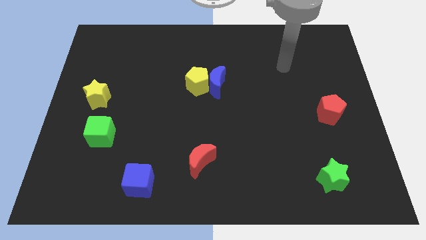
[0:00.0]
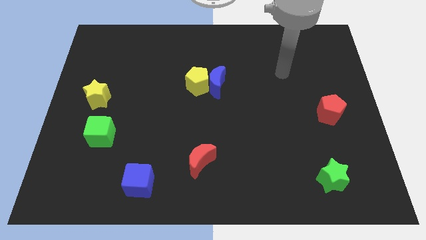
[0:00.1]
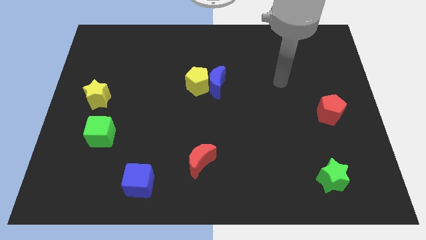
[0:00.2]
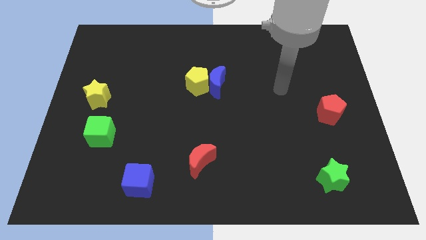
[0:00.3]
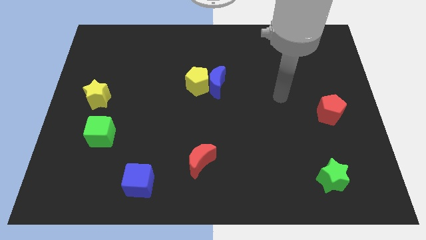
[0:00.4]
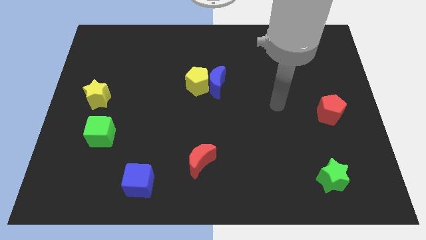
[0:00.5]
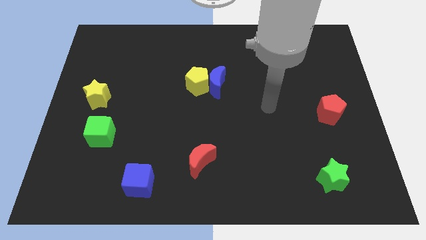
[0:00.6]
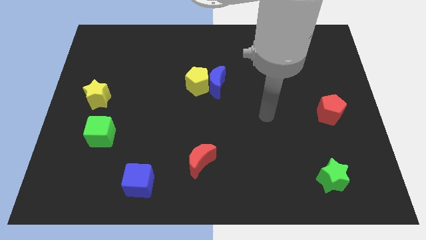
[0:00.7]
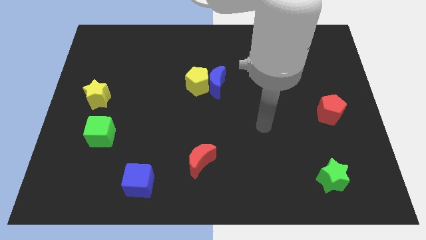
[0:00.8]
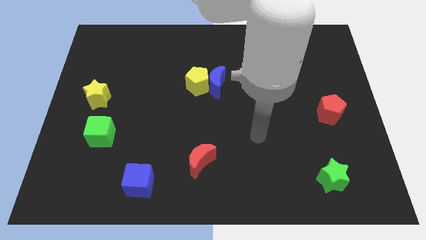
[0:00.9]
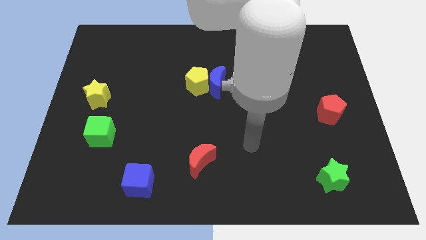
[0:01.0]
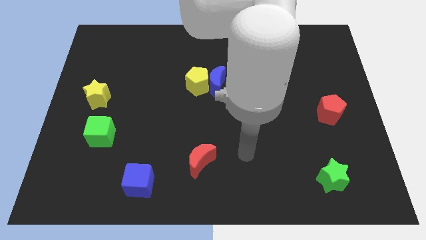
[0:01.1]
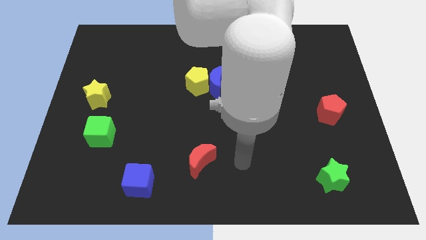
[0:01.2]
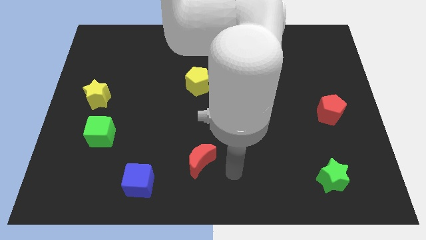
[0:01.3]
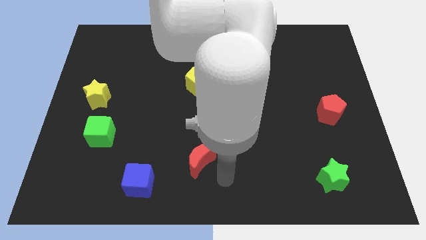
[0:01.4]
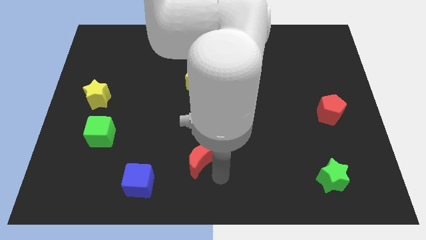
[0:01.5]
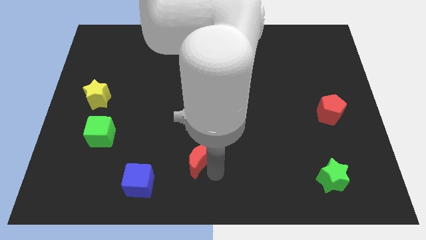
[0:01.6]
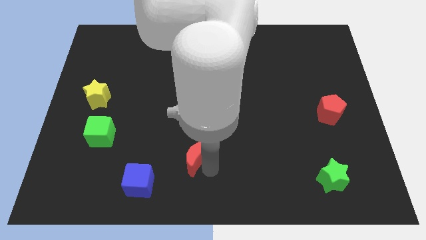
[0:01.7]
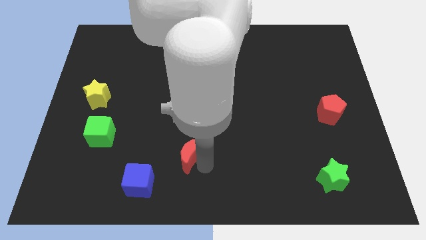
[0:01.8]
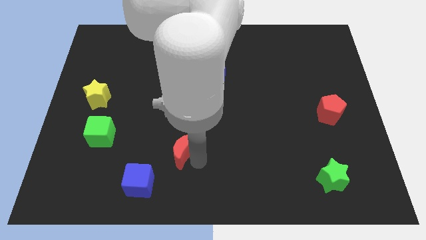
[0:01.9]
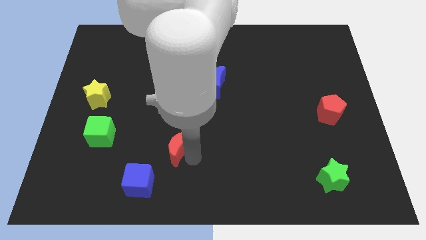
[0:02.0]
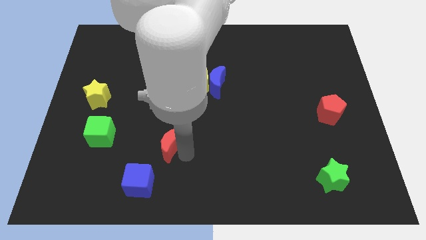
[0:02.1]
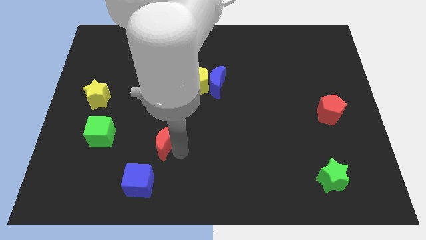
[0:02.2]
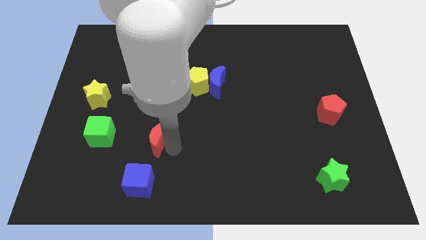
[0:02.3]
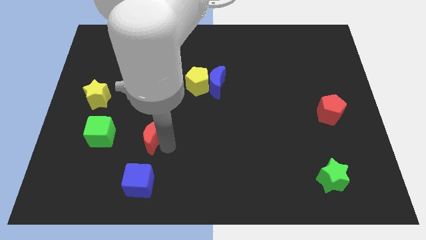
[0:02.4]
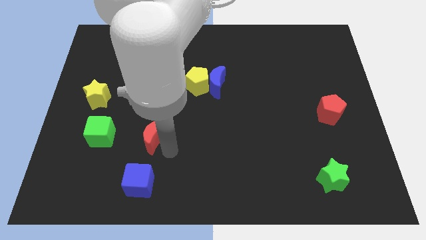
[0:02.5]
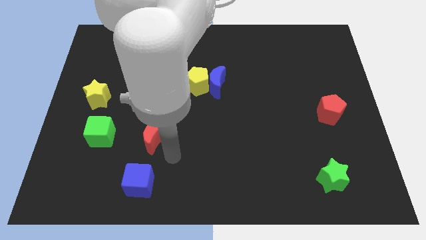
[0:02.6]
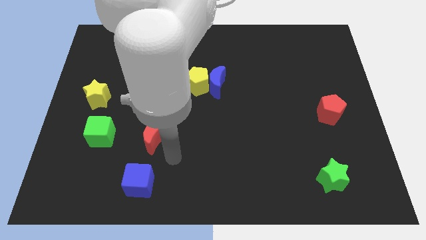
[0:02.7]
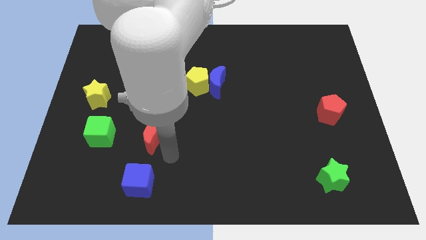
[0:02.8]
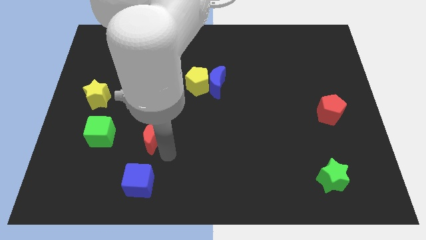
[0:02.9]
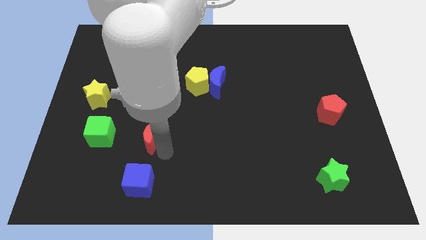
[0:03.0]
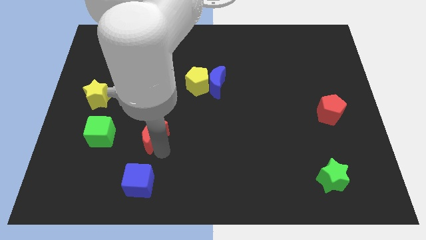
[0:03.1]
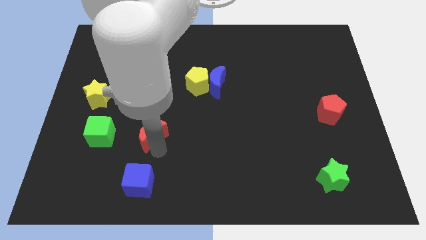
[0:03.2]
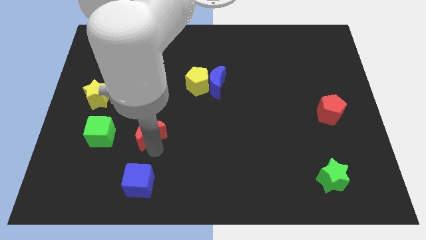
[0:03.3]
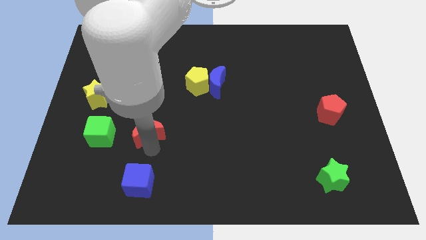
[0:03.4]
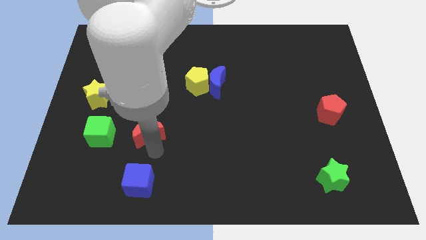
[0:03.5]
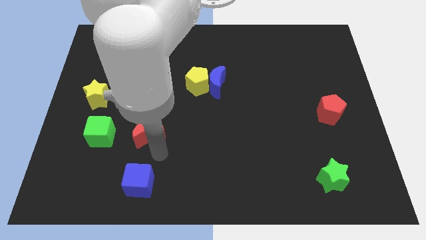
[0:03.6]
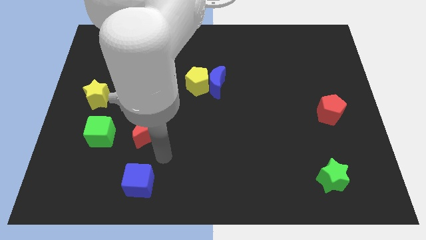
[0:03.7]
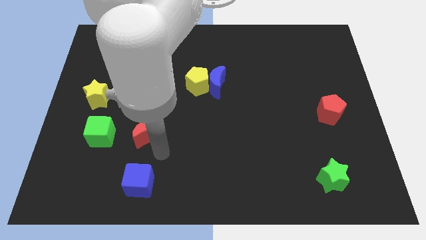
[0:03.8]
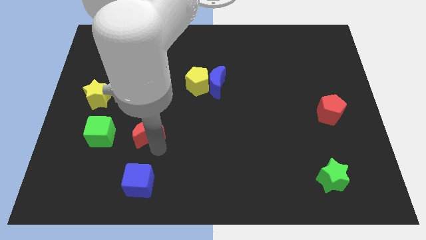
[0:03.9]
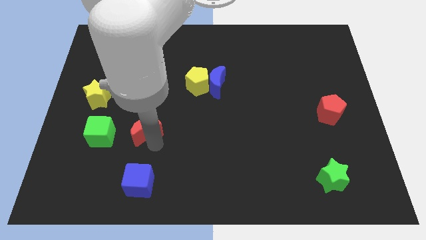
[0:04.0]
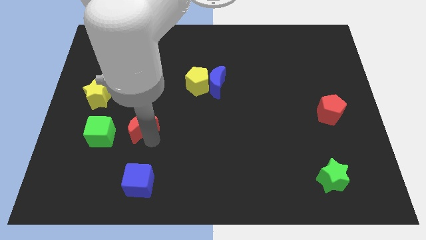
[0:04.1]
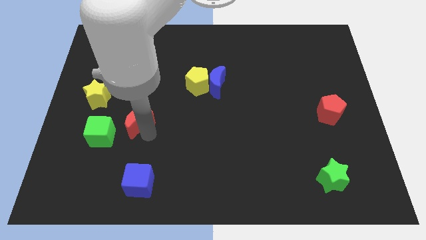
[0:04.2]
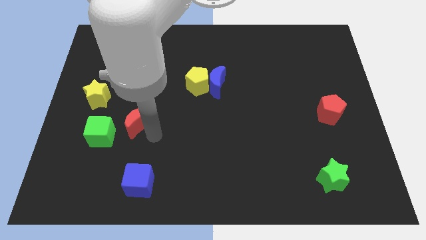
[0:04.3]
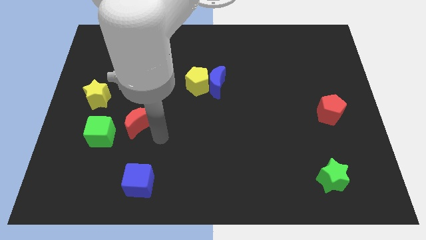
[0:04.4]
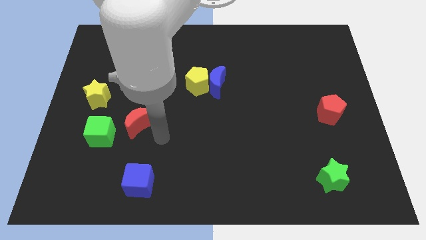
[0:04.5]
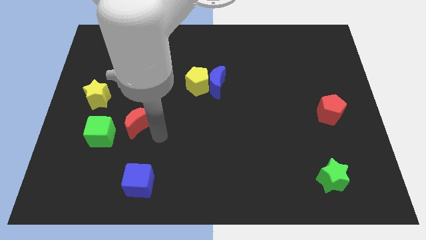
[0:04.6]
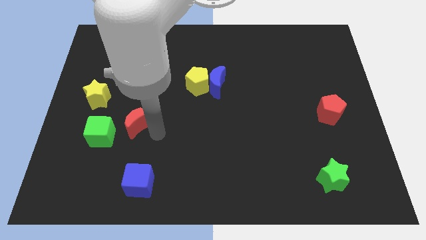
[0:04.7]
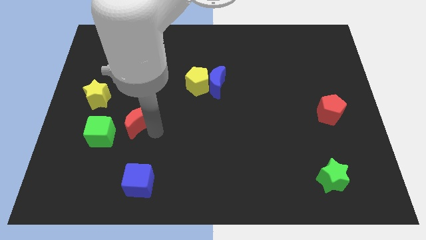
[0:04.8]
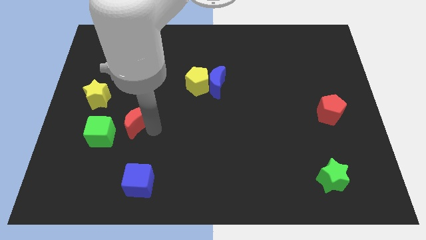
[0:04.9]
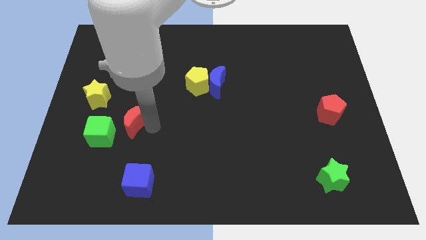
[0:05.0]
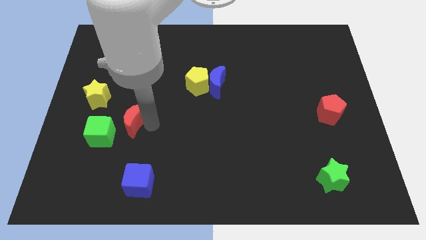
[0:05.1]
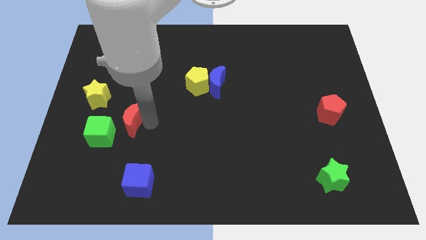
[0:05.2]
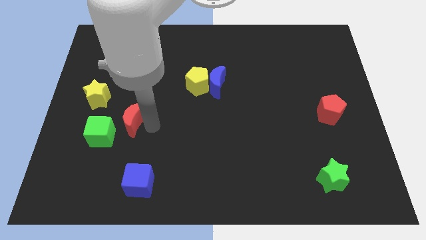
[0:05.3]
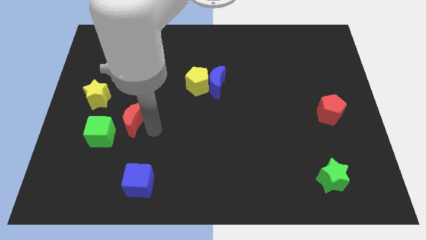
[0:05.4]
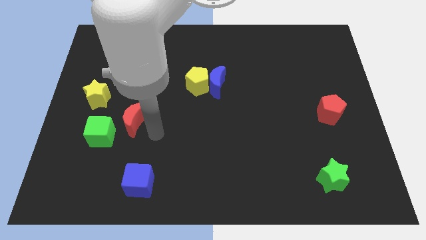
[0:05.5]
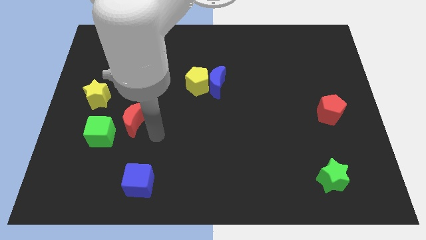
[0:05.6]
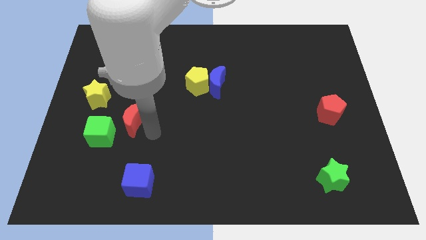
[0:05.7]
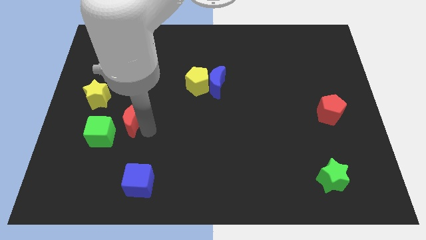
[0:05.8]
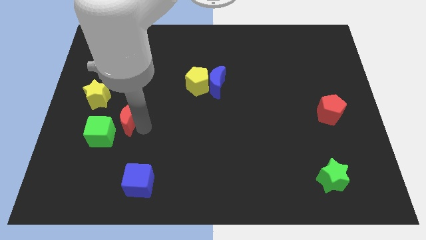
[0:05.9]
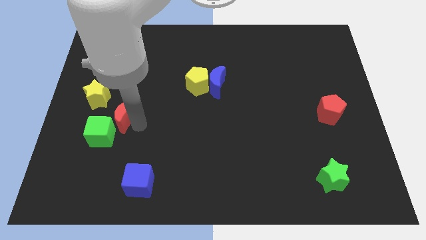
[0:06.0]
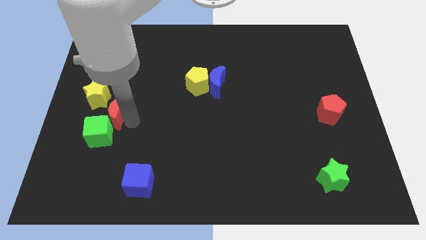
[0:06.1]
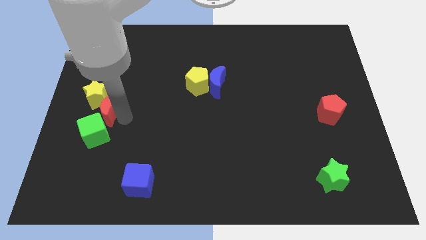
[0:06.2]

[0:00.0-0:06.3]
push the red moon close to the yellow star
